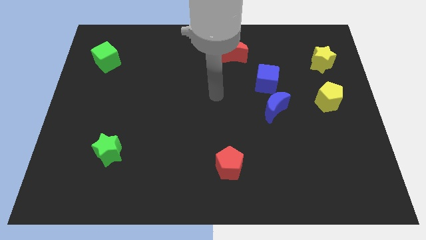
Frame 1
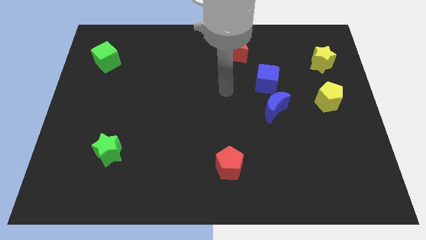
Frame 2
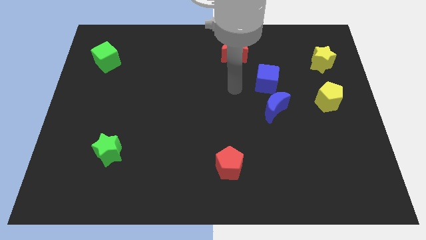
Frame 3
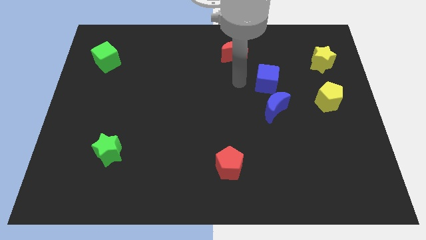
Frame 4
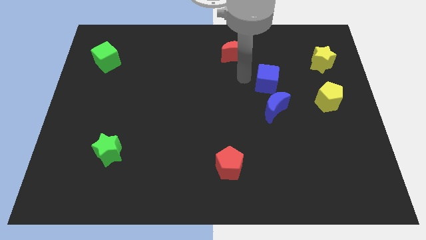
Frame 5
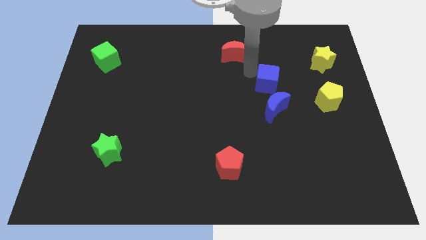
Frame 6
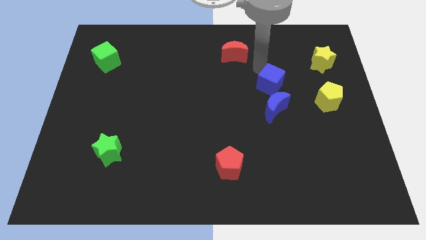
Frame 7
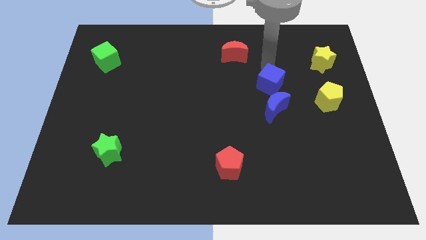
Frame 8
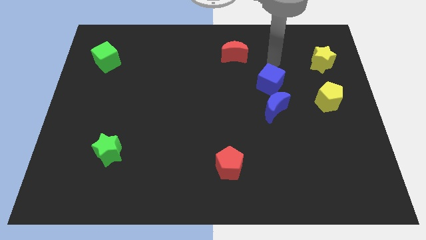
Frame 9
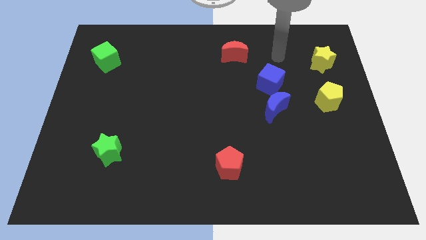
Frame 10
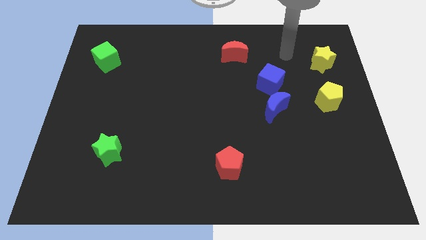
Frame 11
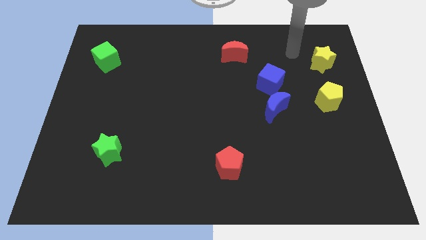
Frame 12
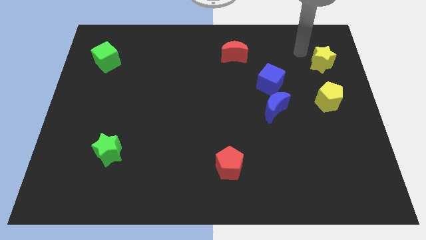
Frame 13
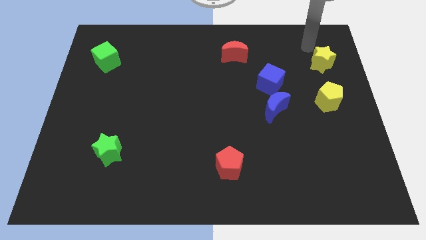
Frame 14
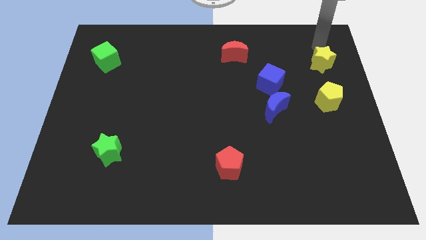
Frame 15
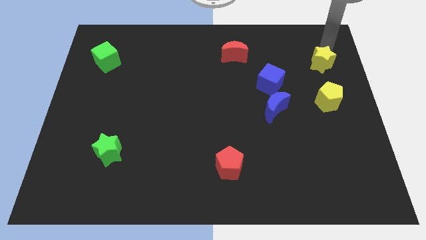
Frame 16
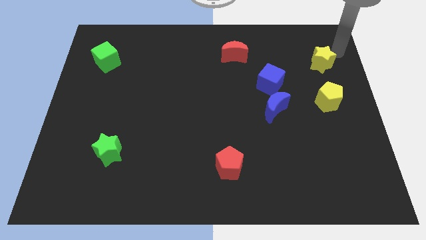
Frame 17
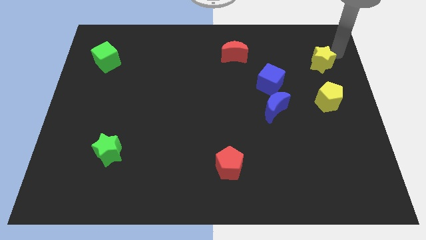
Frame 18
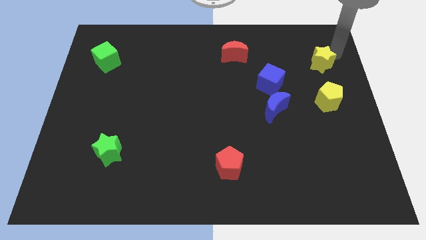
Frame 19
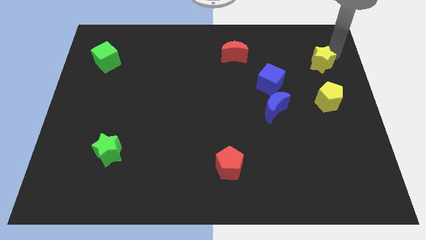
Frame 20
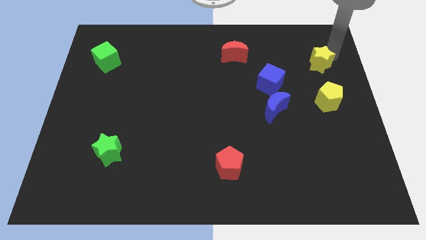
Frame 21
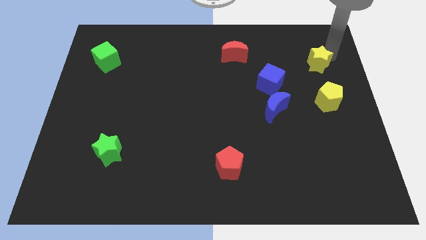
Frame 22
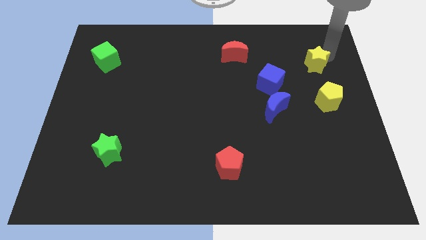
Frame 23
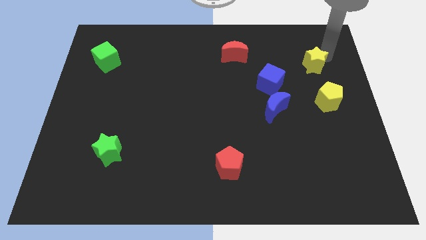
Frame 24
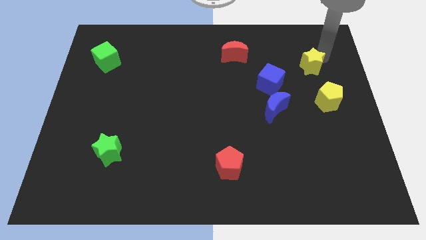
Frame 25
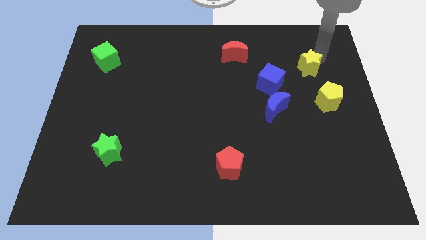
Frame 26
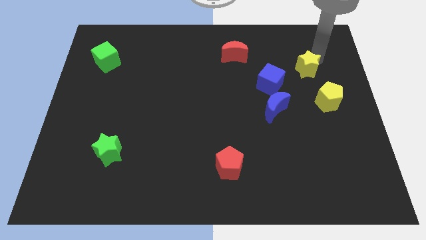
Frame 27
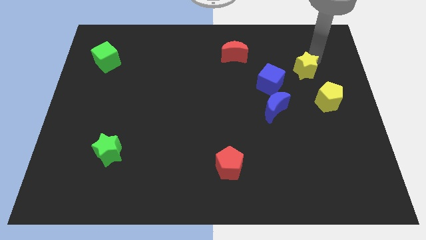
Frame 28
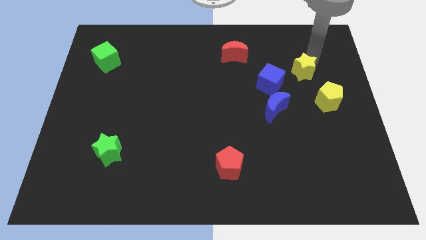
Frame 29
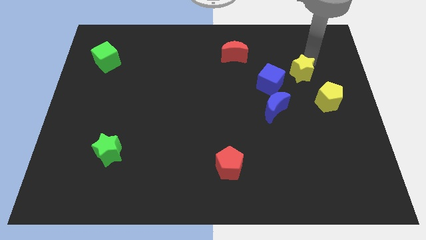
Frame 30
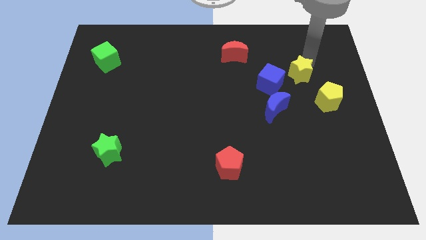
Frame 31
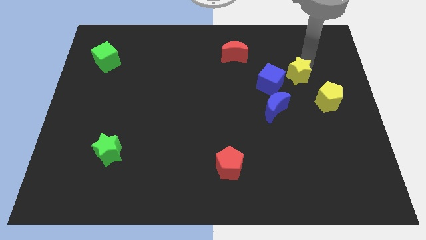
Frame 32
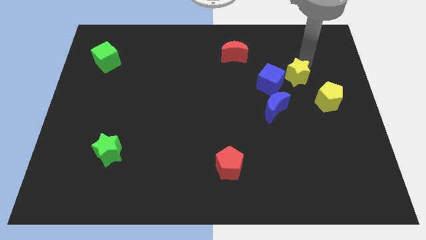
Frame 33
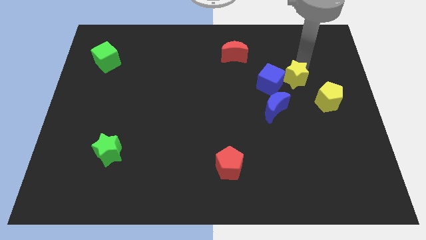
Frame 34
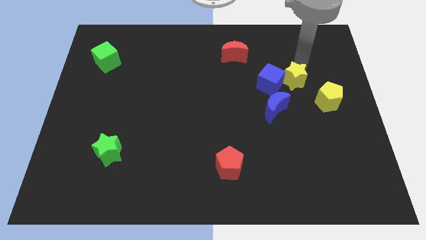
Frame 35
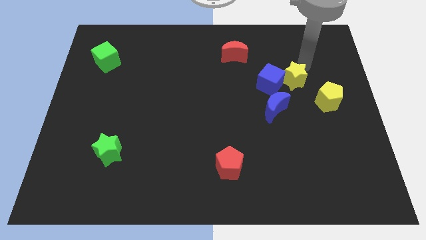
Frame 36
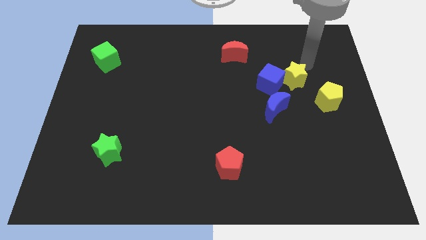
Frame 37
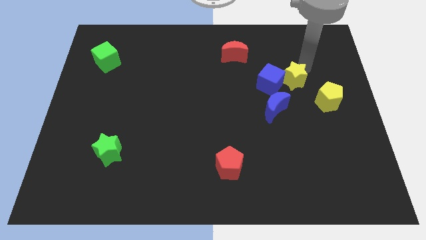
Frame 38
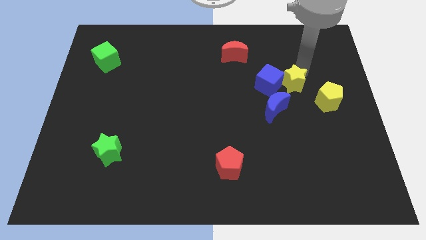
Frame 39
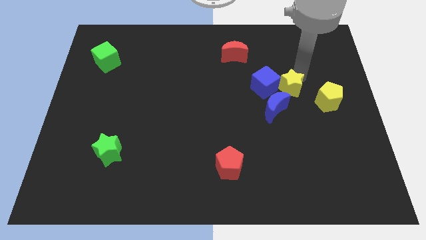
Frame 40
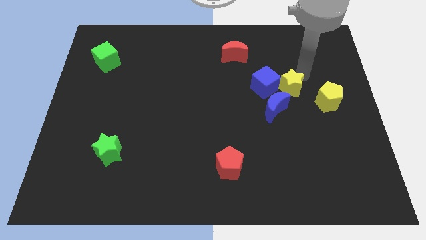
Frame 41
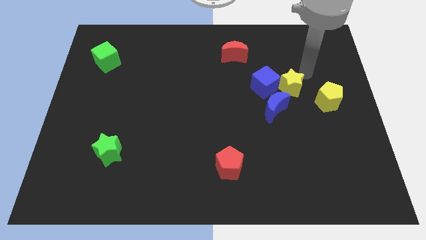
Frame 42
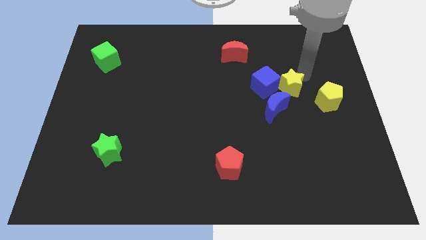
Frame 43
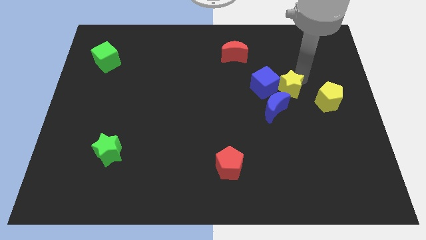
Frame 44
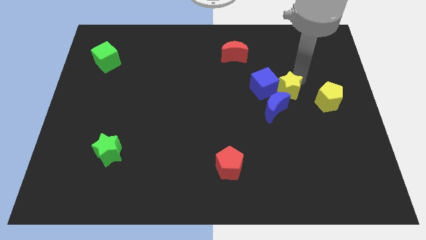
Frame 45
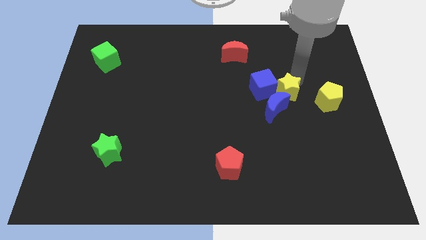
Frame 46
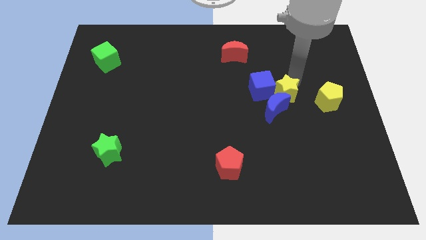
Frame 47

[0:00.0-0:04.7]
move the yellow star towards the blue moon

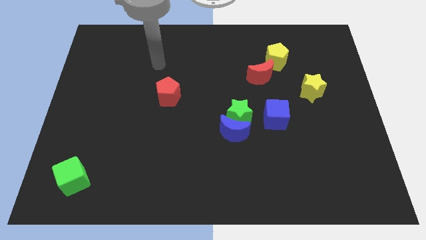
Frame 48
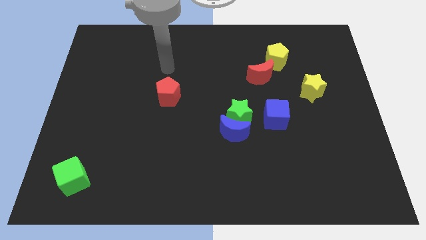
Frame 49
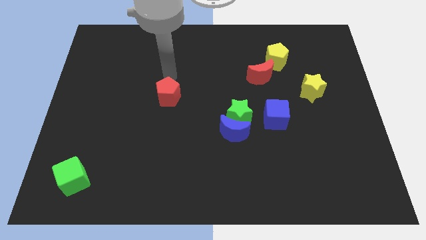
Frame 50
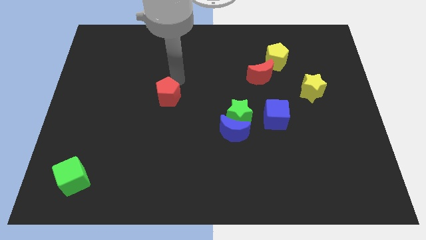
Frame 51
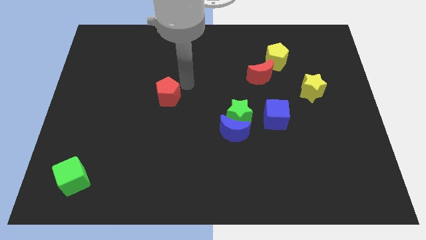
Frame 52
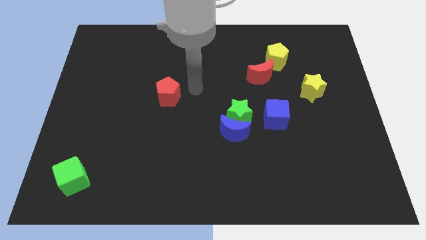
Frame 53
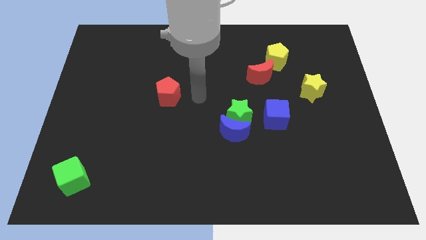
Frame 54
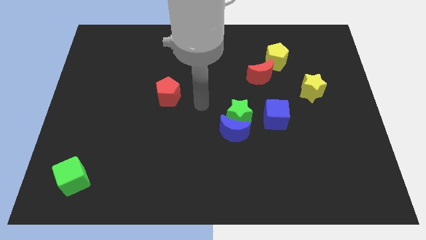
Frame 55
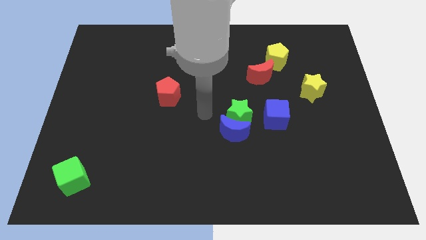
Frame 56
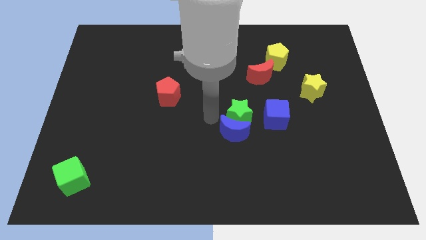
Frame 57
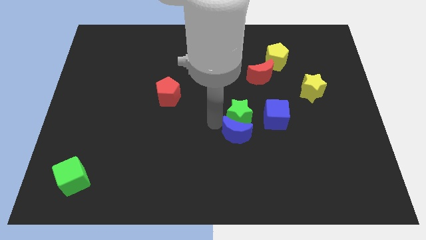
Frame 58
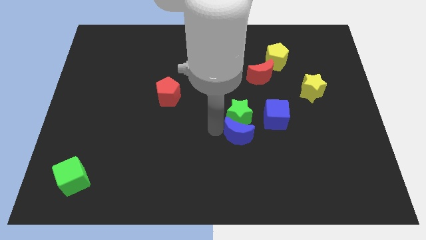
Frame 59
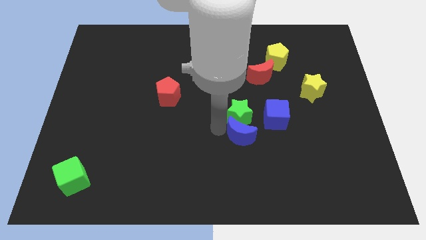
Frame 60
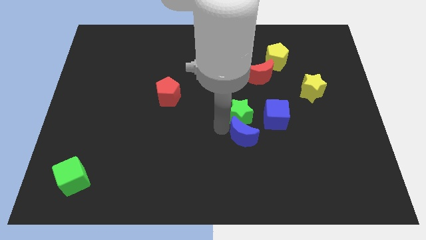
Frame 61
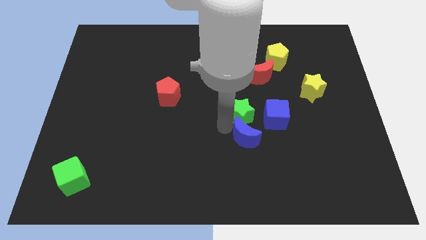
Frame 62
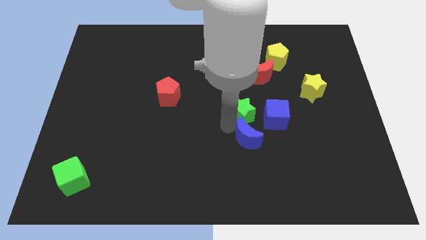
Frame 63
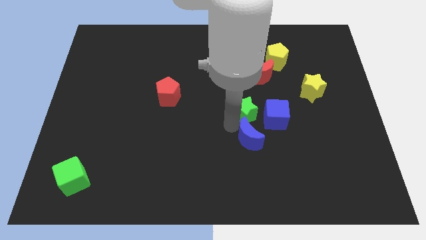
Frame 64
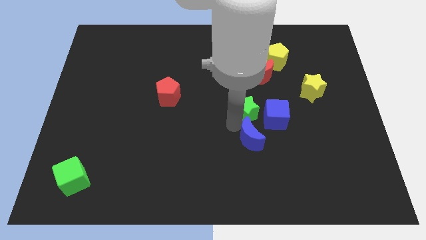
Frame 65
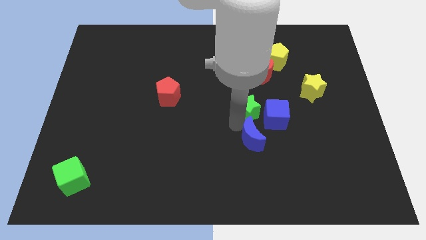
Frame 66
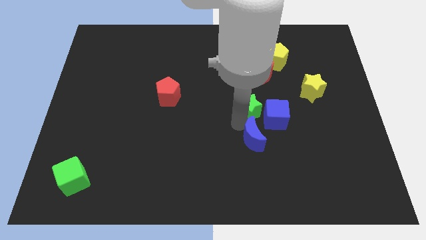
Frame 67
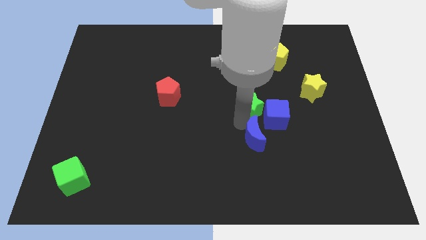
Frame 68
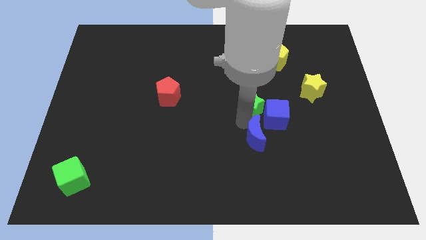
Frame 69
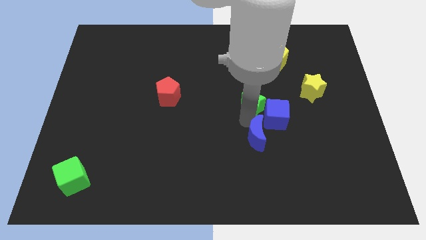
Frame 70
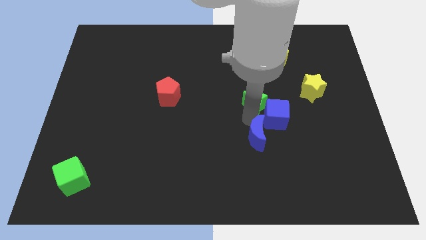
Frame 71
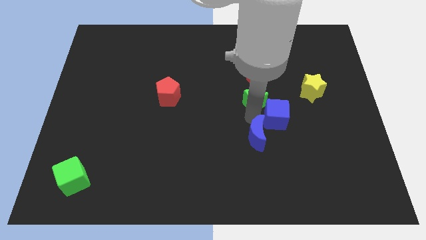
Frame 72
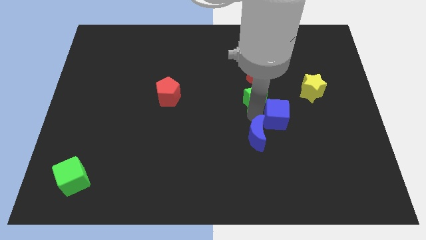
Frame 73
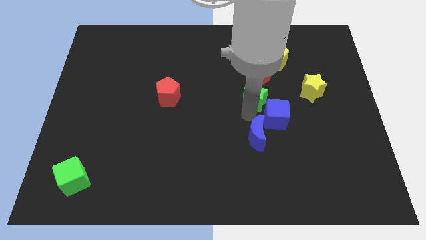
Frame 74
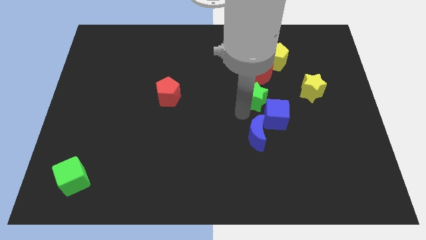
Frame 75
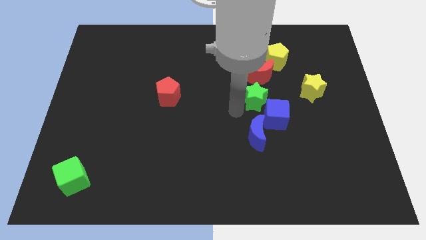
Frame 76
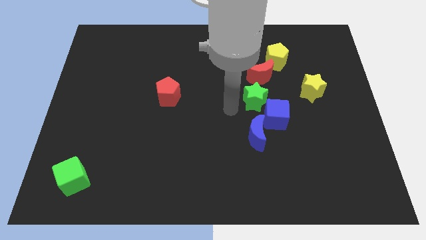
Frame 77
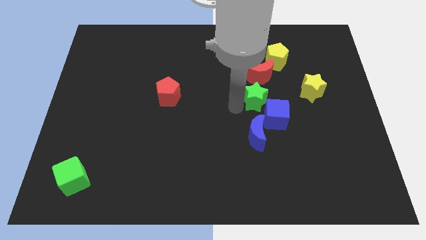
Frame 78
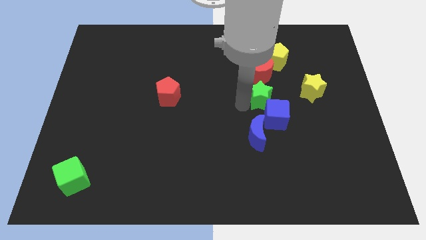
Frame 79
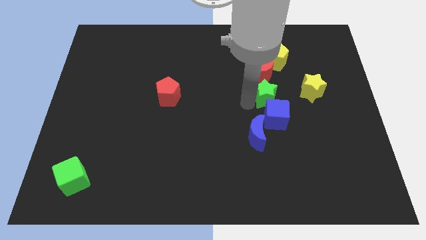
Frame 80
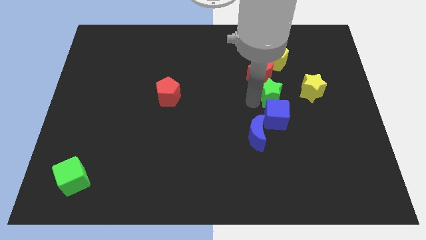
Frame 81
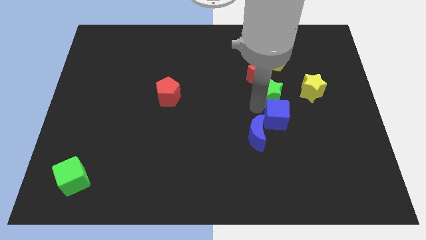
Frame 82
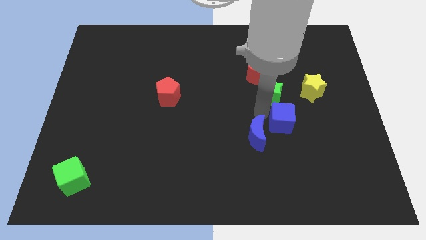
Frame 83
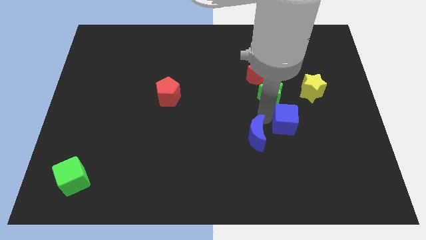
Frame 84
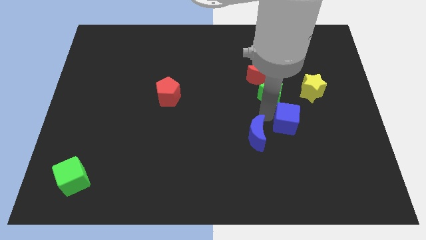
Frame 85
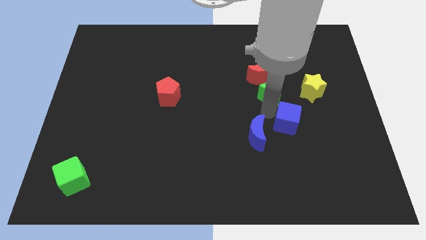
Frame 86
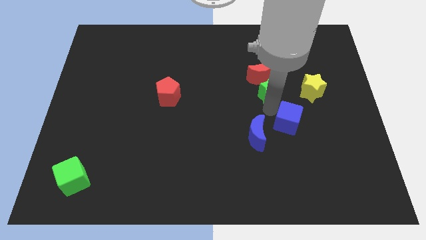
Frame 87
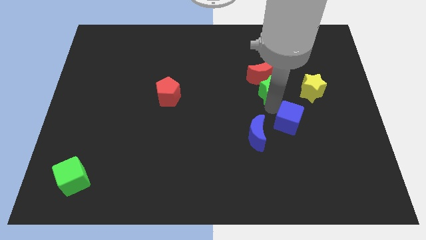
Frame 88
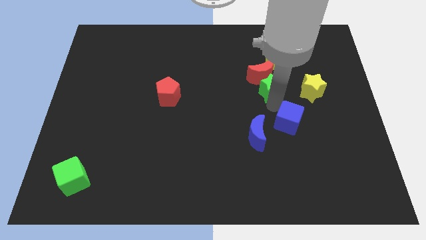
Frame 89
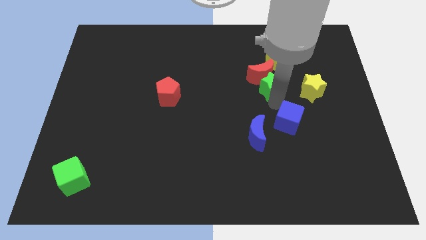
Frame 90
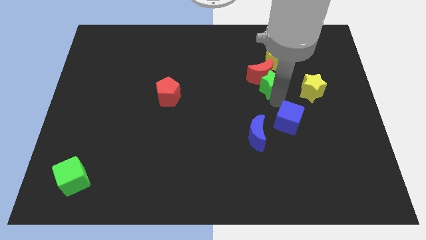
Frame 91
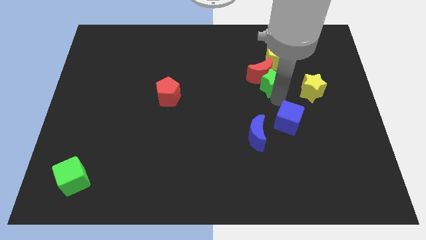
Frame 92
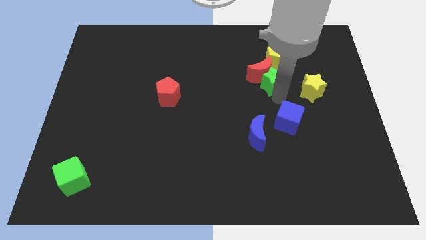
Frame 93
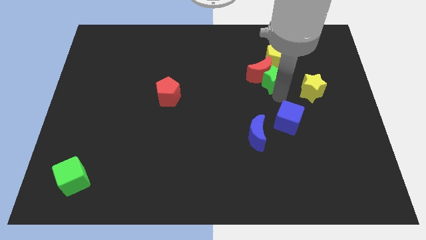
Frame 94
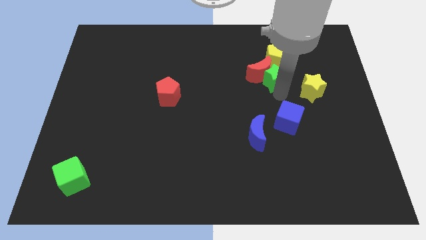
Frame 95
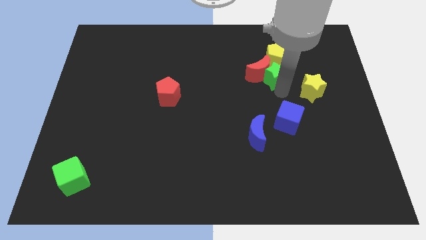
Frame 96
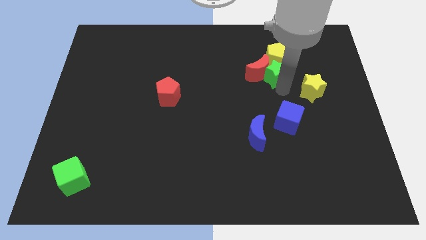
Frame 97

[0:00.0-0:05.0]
move the green star next to the yellow pentagon
